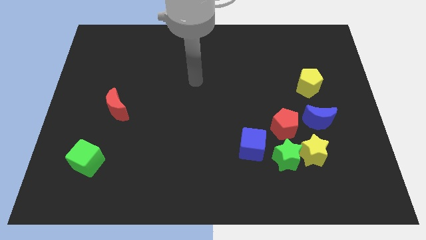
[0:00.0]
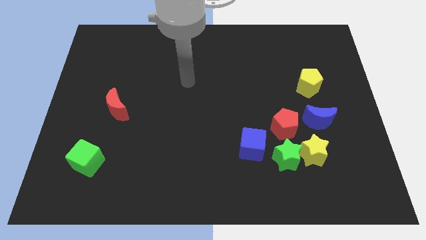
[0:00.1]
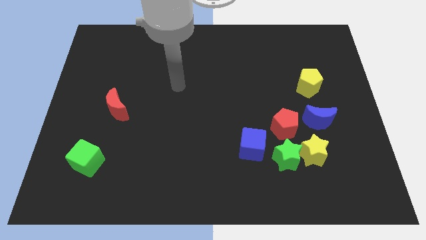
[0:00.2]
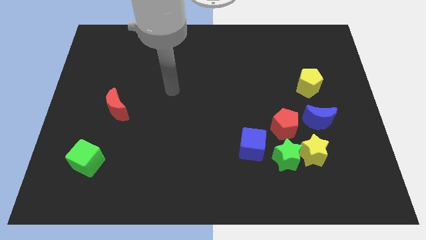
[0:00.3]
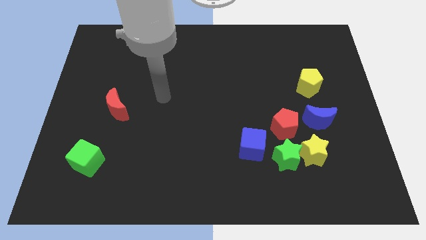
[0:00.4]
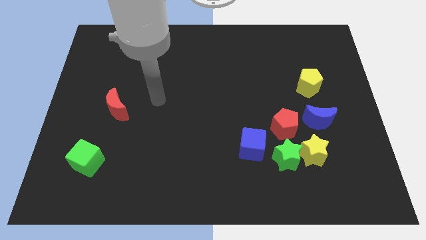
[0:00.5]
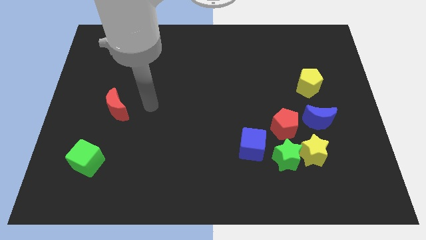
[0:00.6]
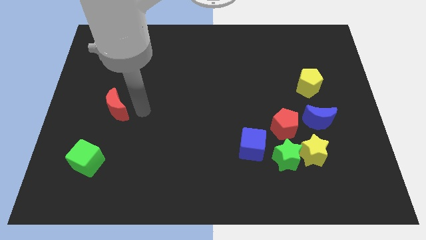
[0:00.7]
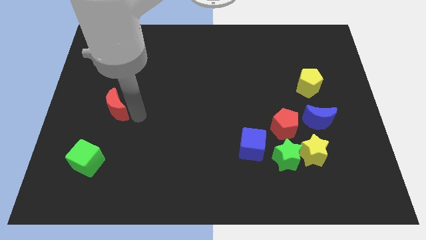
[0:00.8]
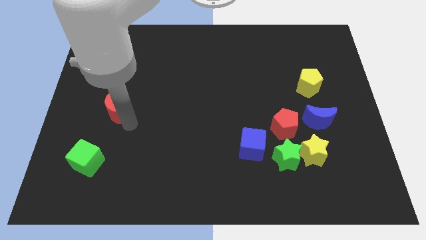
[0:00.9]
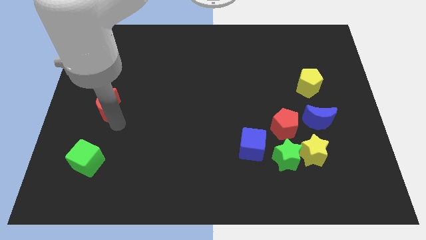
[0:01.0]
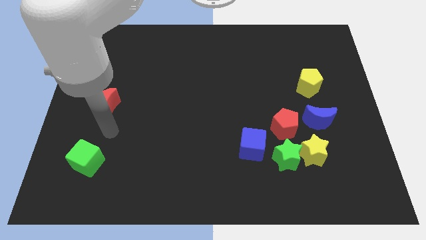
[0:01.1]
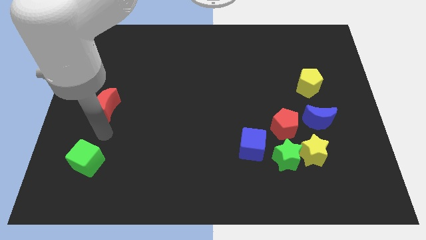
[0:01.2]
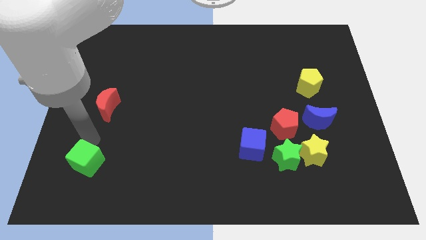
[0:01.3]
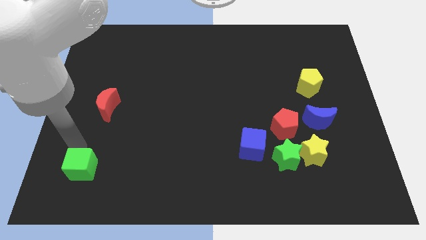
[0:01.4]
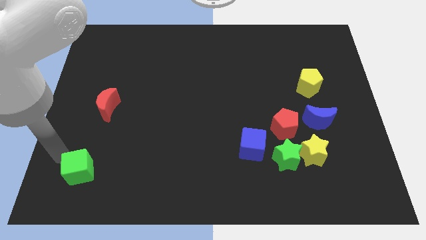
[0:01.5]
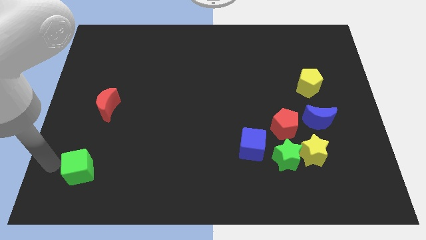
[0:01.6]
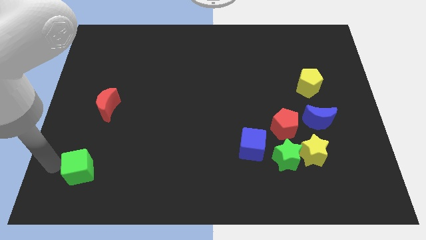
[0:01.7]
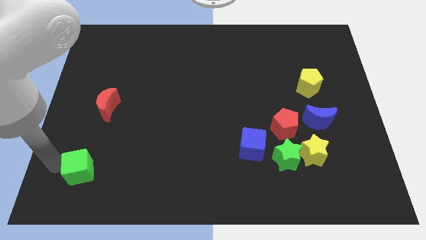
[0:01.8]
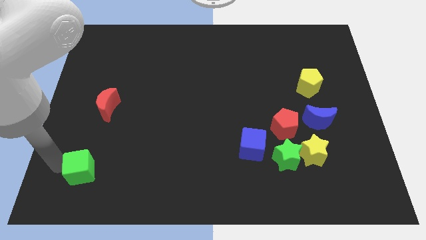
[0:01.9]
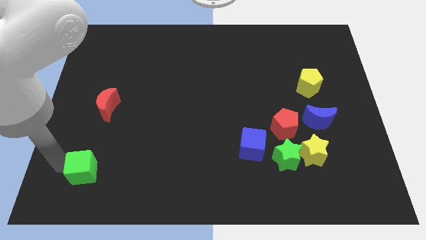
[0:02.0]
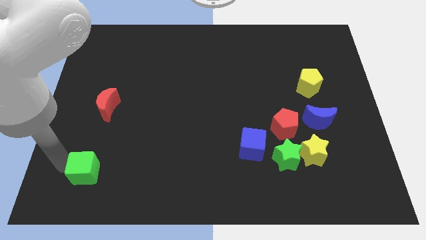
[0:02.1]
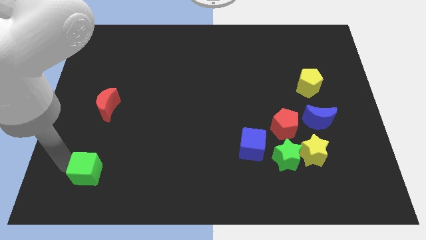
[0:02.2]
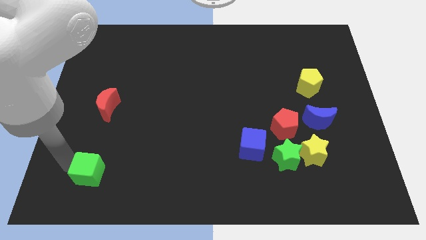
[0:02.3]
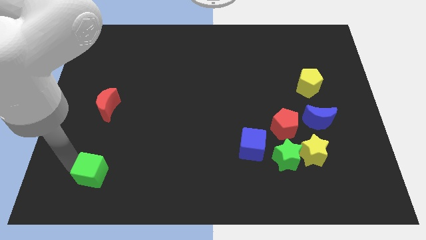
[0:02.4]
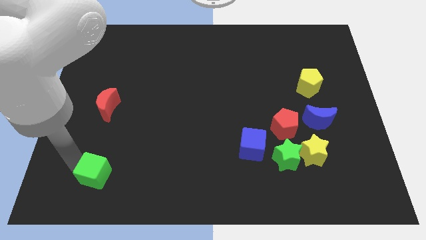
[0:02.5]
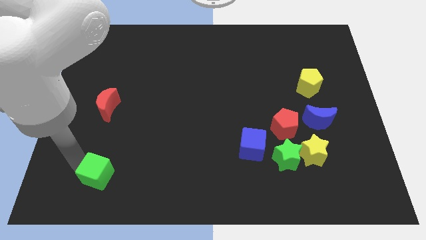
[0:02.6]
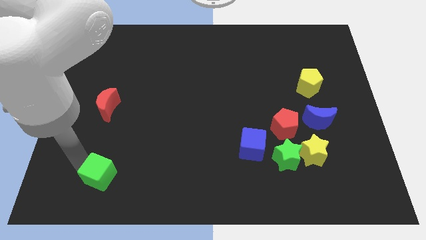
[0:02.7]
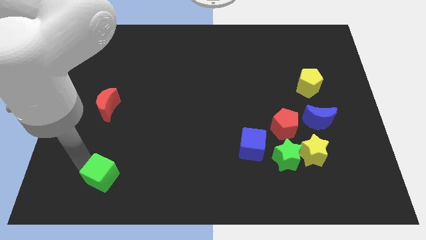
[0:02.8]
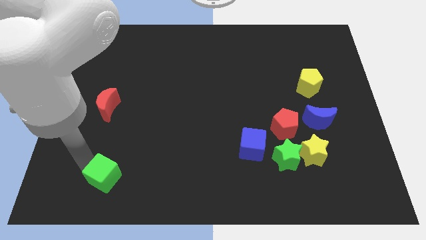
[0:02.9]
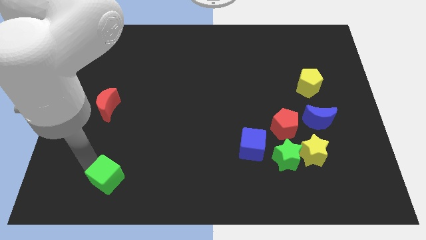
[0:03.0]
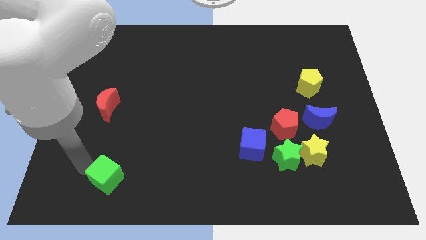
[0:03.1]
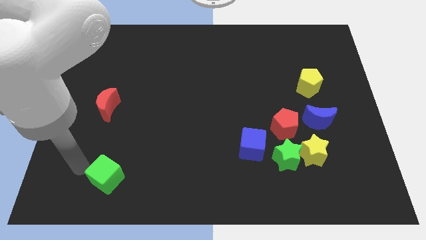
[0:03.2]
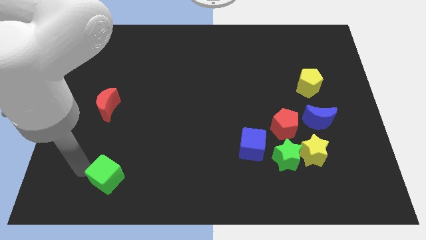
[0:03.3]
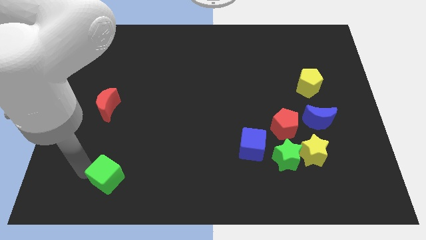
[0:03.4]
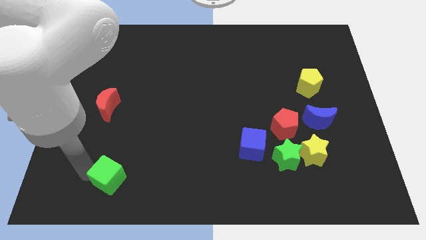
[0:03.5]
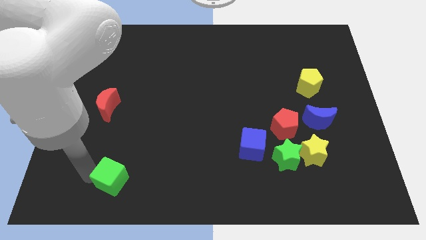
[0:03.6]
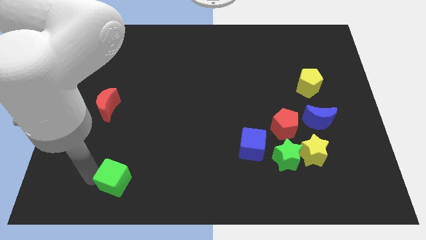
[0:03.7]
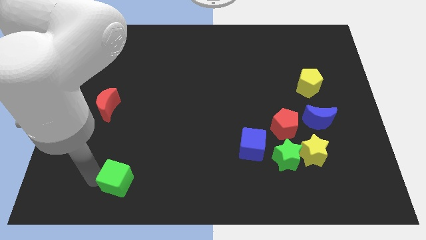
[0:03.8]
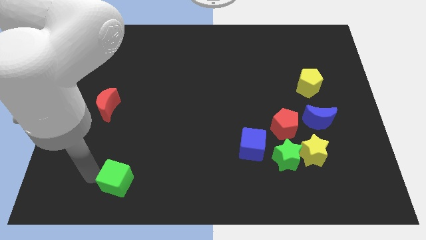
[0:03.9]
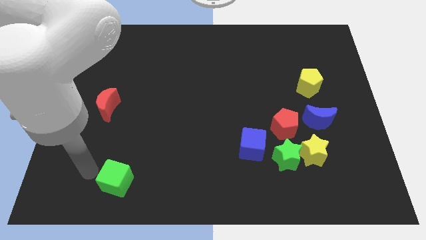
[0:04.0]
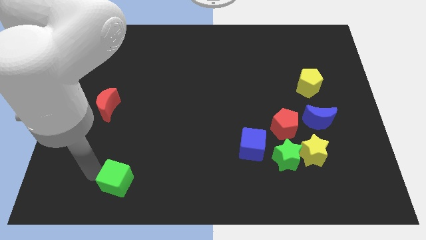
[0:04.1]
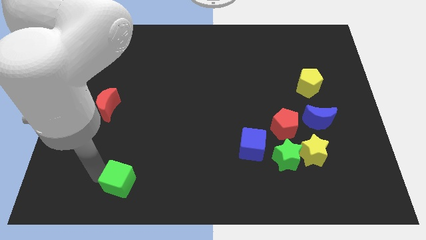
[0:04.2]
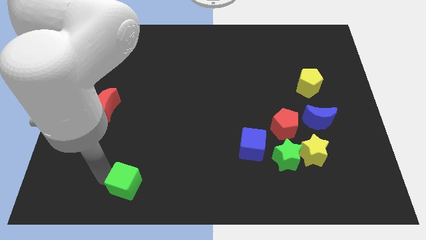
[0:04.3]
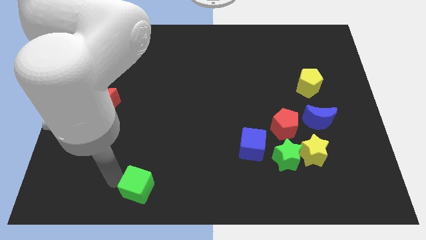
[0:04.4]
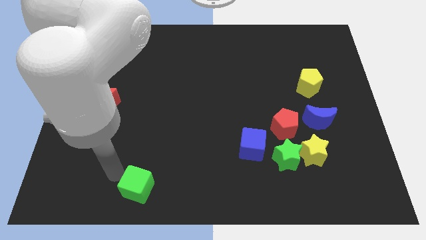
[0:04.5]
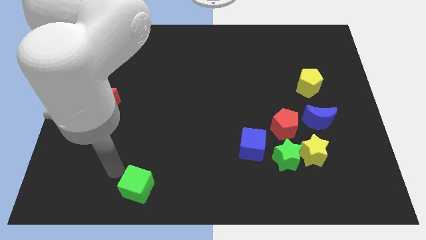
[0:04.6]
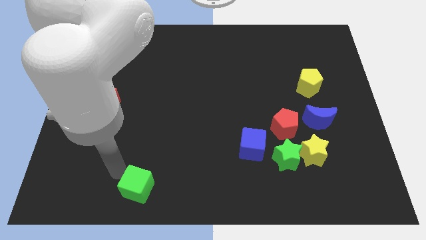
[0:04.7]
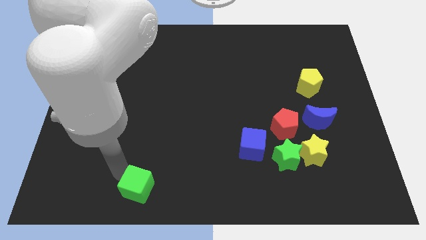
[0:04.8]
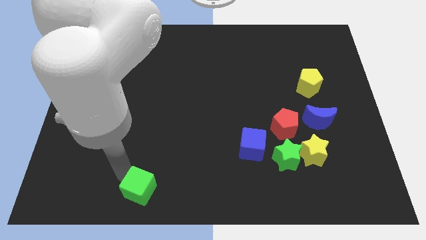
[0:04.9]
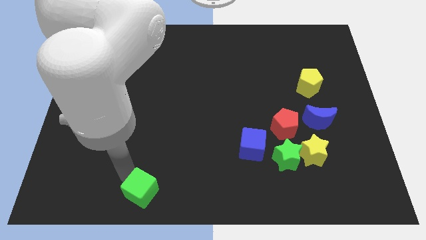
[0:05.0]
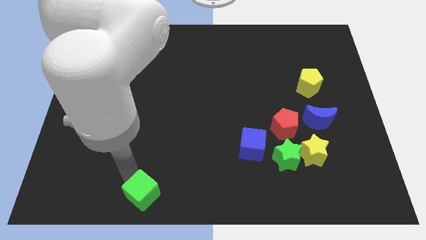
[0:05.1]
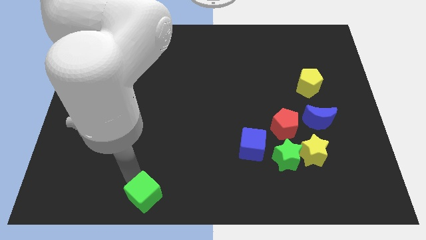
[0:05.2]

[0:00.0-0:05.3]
move the green cube to the bottom

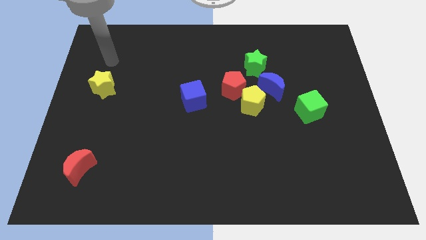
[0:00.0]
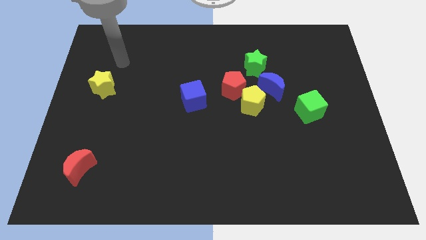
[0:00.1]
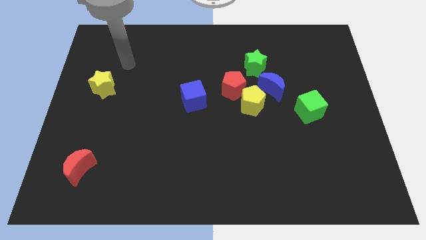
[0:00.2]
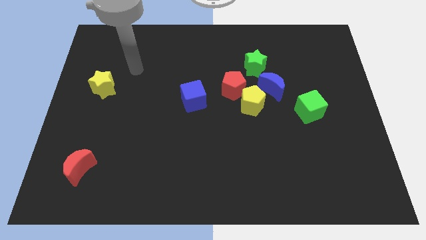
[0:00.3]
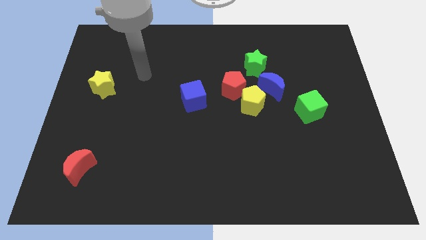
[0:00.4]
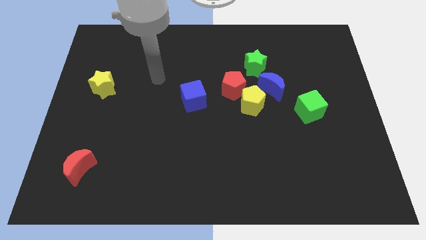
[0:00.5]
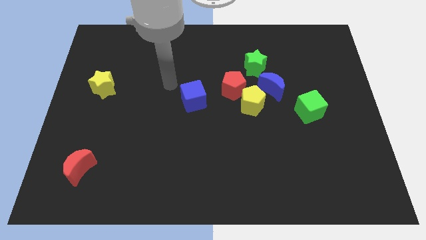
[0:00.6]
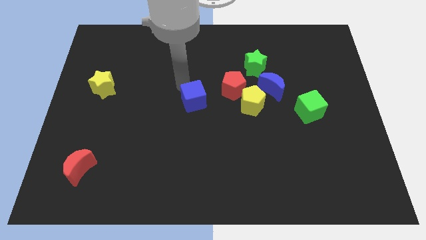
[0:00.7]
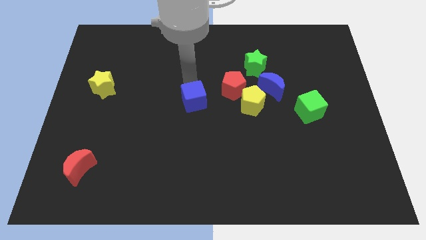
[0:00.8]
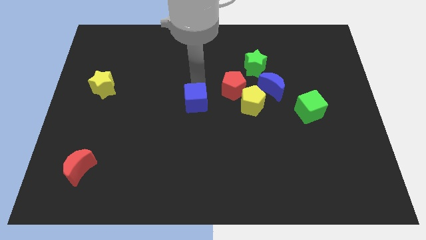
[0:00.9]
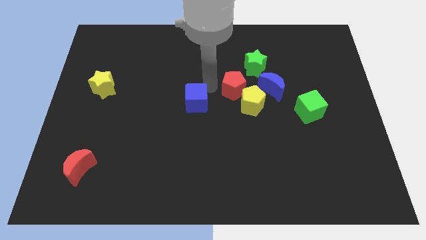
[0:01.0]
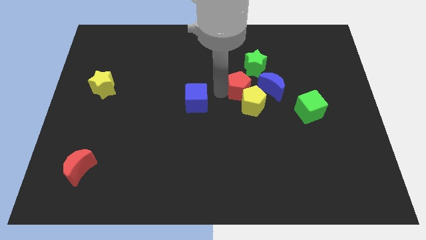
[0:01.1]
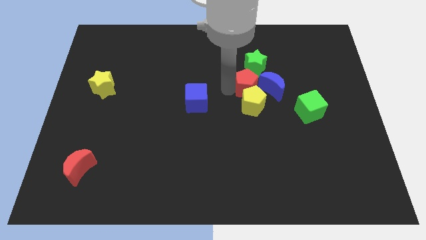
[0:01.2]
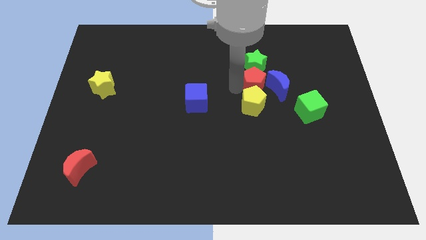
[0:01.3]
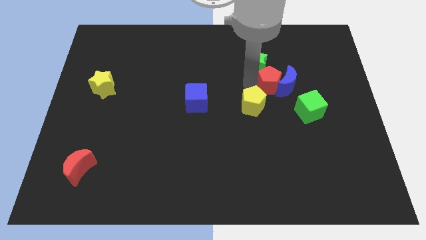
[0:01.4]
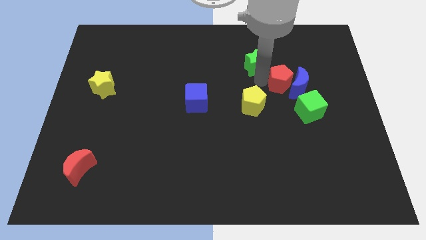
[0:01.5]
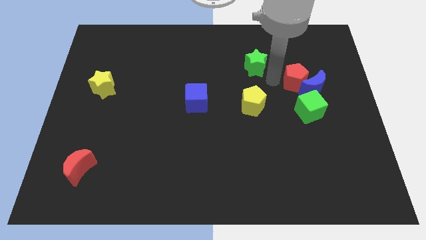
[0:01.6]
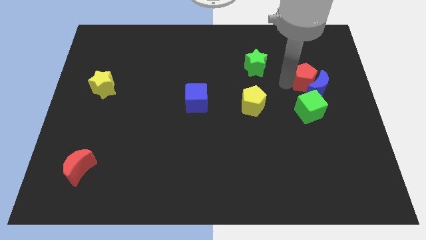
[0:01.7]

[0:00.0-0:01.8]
move the blue moon to the right side of the board
